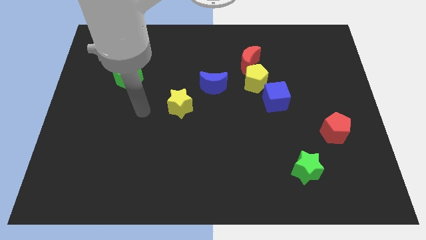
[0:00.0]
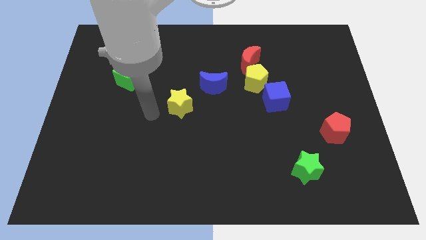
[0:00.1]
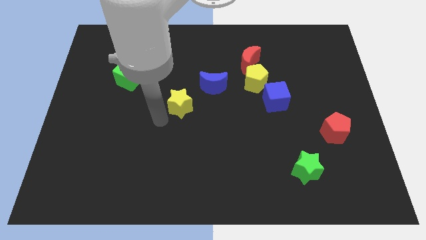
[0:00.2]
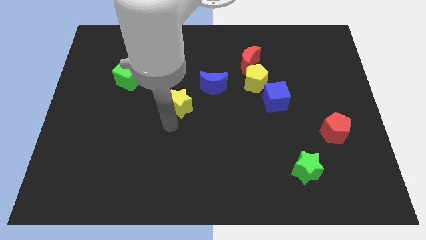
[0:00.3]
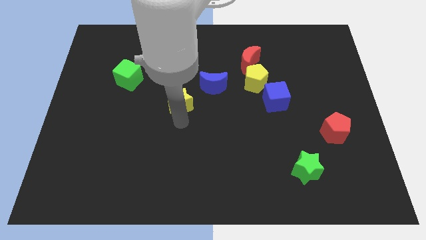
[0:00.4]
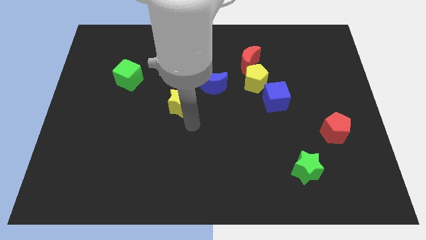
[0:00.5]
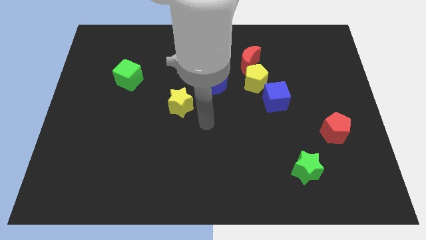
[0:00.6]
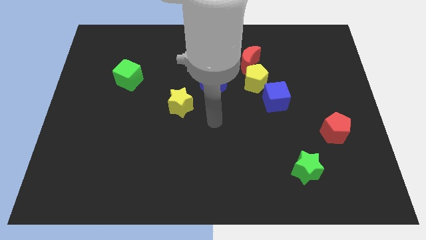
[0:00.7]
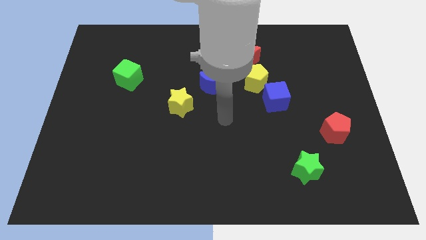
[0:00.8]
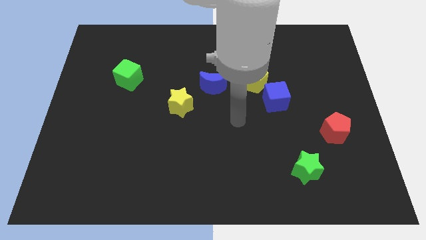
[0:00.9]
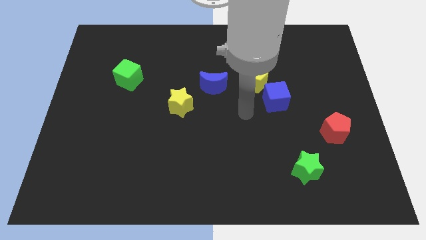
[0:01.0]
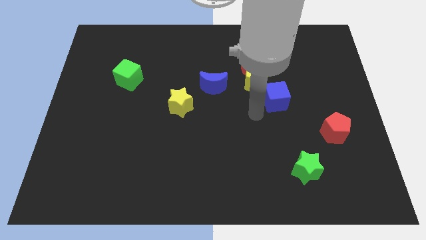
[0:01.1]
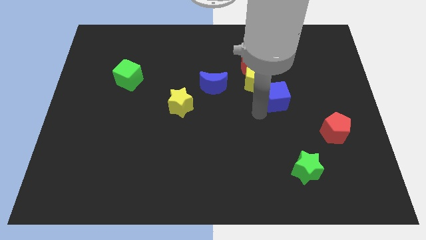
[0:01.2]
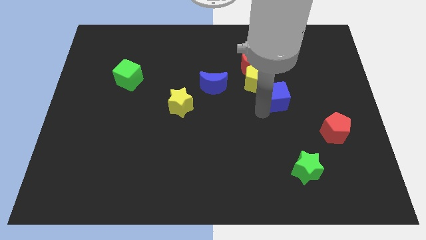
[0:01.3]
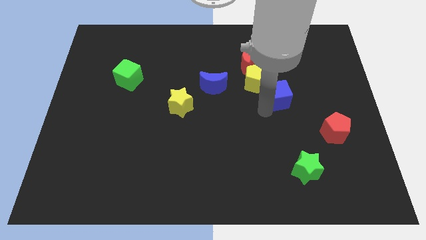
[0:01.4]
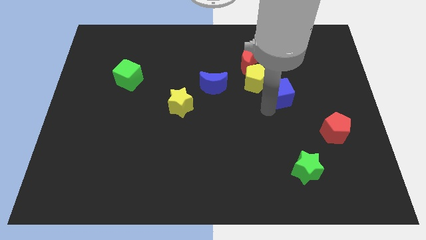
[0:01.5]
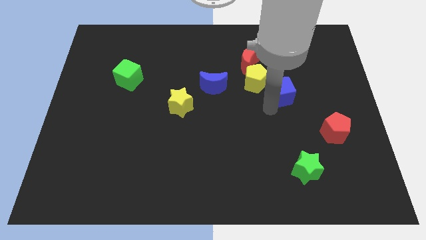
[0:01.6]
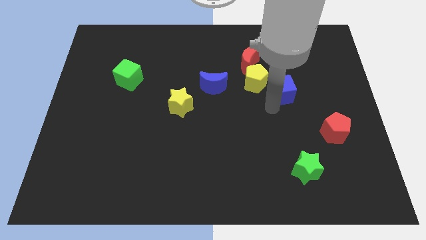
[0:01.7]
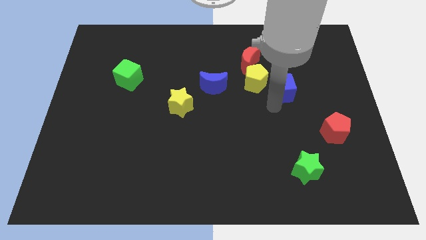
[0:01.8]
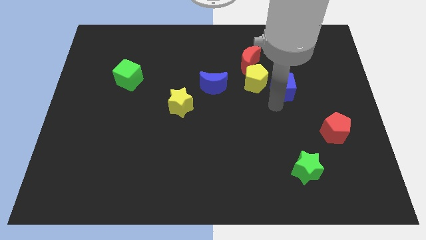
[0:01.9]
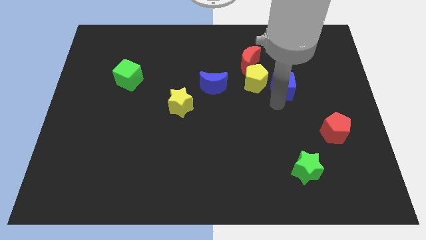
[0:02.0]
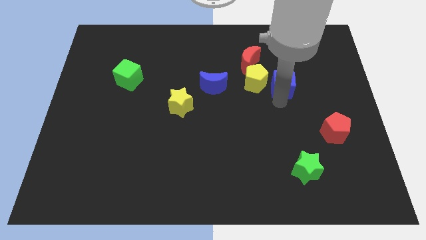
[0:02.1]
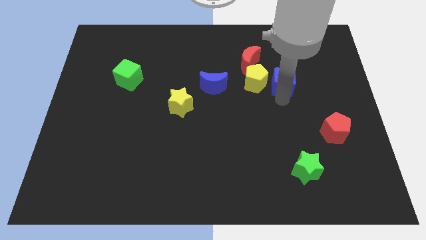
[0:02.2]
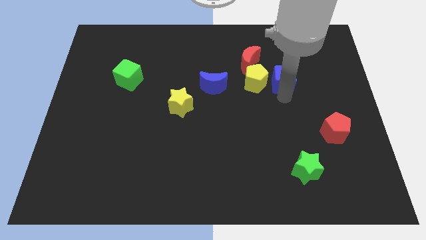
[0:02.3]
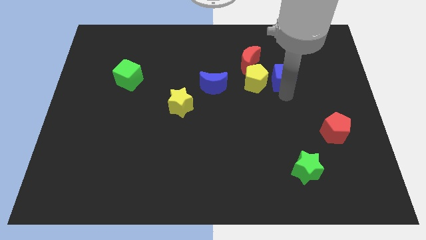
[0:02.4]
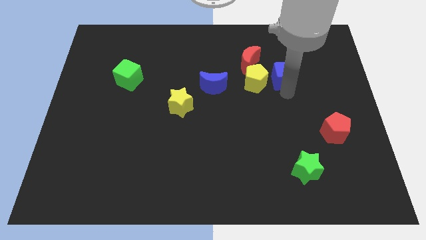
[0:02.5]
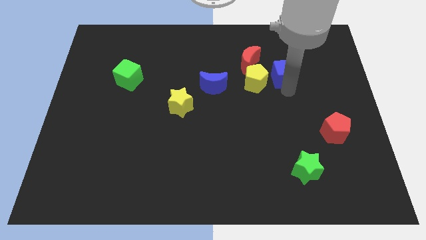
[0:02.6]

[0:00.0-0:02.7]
move the blue cube a little up and to the right

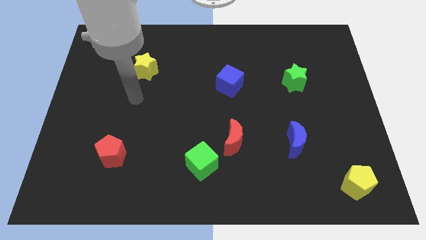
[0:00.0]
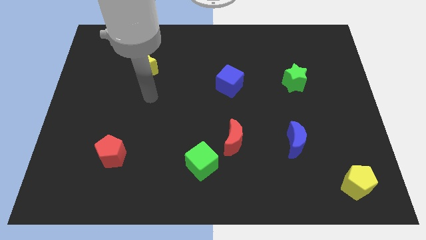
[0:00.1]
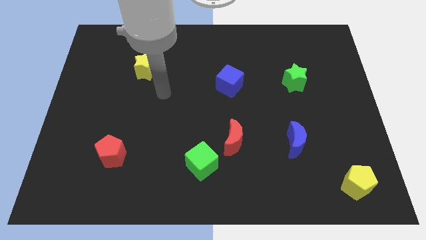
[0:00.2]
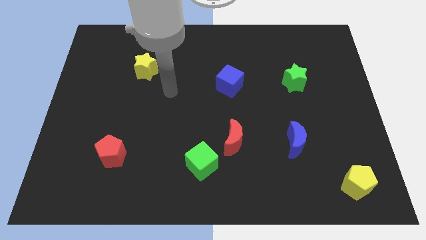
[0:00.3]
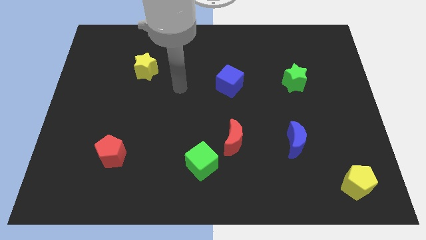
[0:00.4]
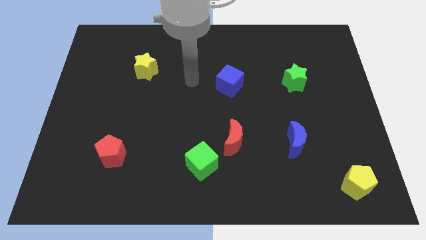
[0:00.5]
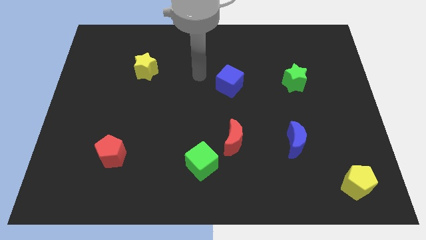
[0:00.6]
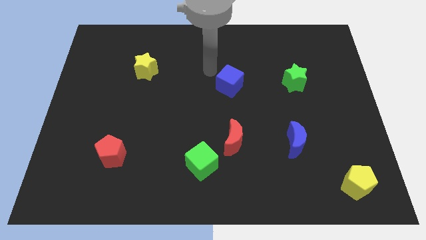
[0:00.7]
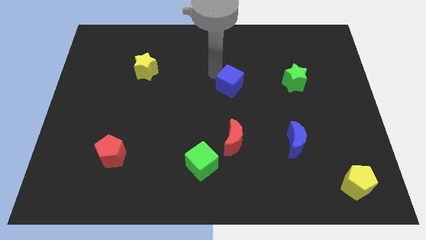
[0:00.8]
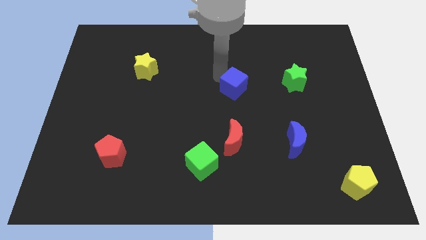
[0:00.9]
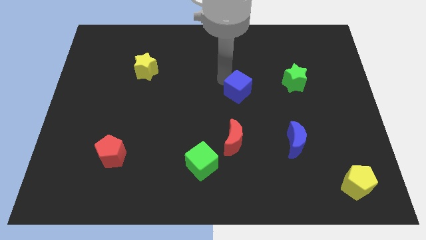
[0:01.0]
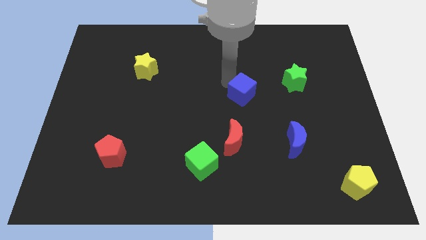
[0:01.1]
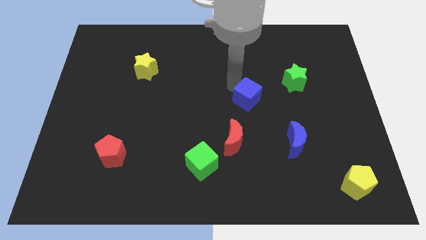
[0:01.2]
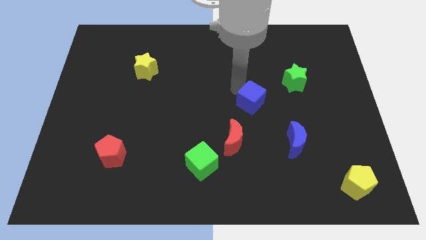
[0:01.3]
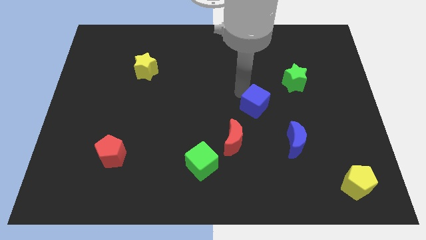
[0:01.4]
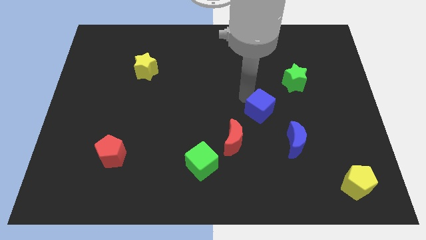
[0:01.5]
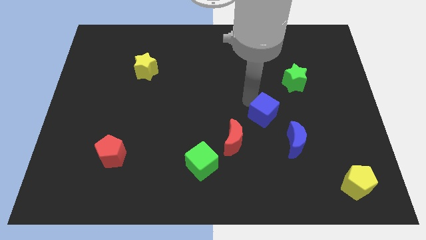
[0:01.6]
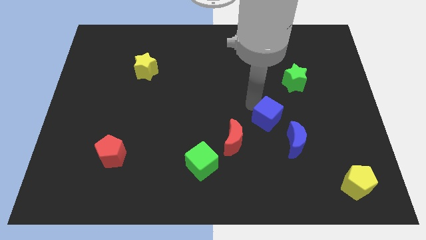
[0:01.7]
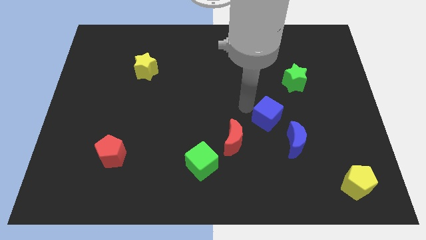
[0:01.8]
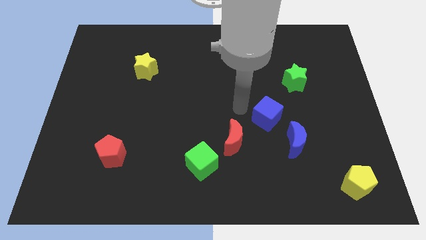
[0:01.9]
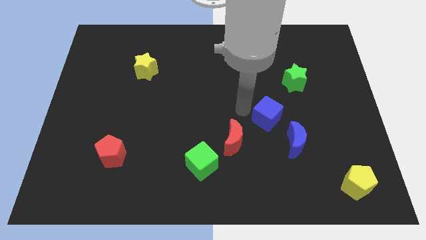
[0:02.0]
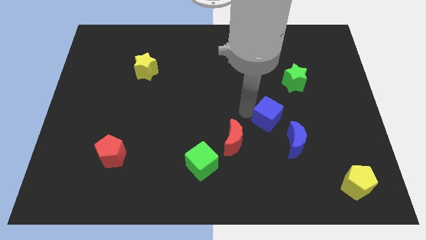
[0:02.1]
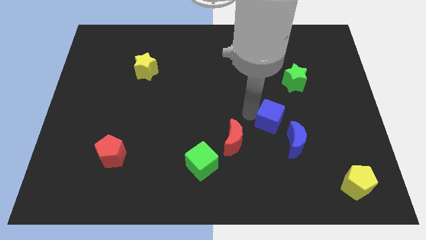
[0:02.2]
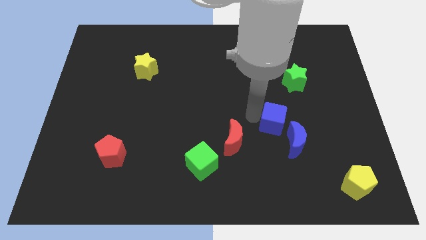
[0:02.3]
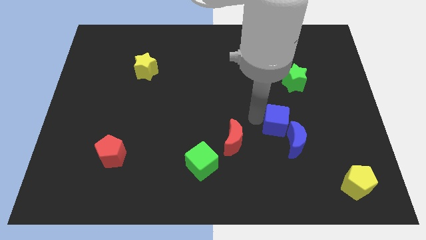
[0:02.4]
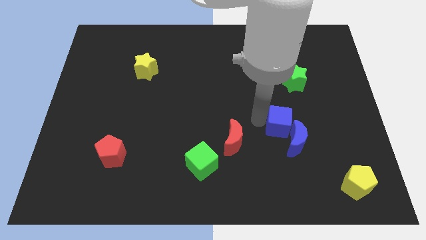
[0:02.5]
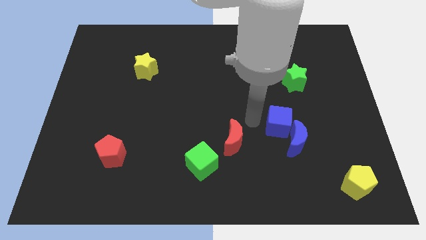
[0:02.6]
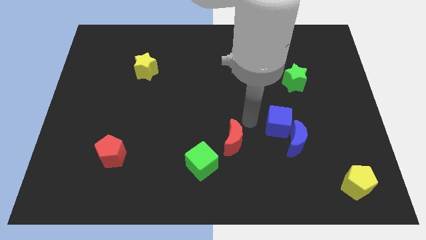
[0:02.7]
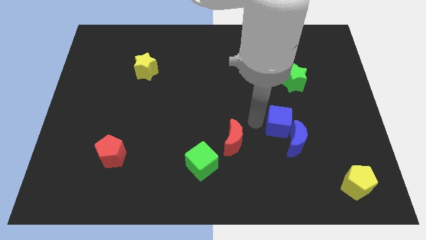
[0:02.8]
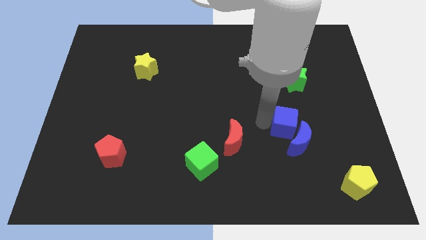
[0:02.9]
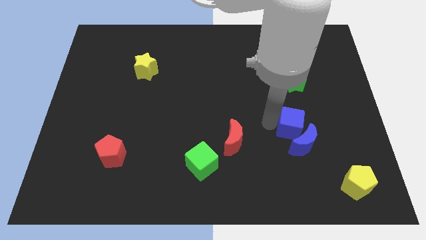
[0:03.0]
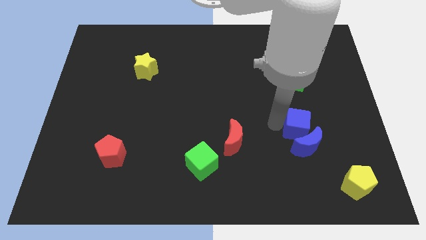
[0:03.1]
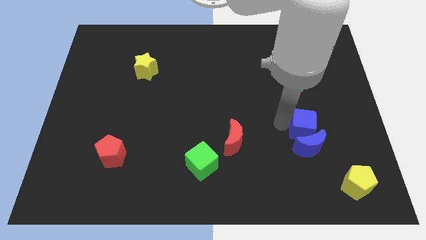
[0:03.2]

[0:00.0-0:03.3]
move the blue cube down and to the right

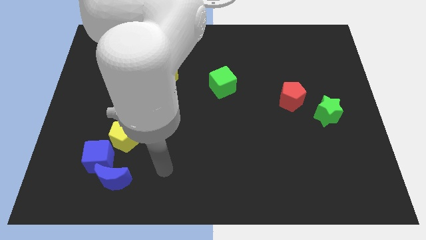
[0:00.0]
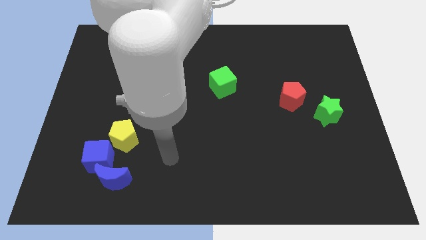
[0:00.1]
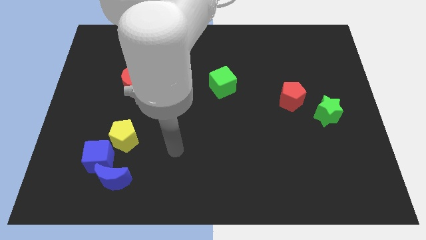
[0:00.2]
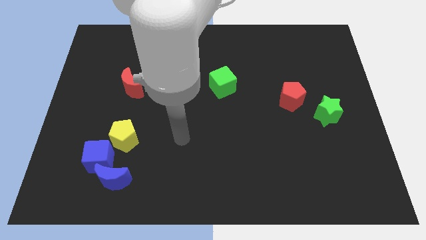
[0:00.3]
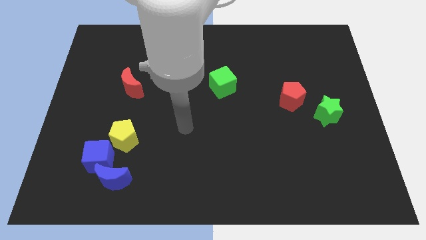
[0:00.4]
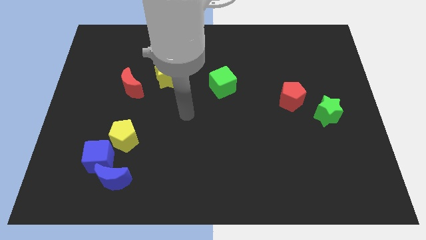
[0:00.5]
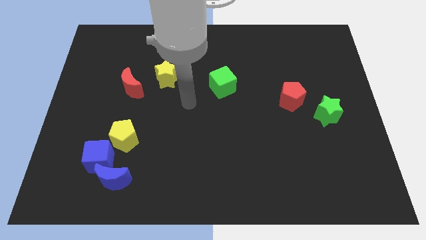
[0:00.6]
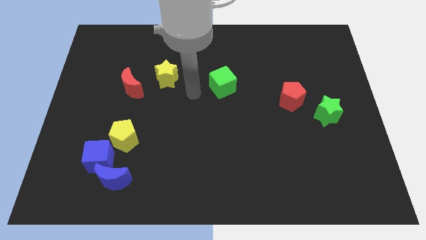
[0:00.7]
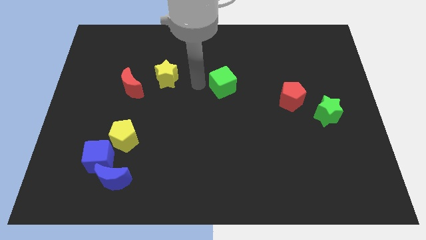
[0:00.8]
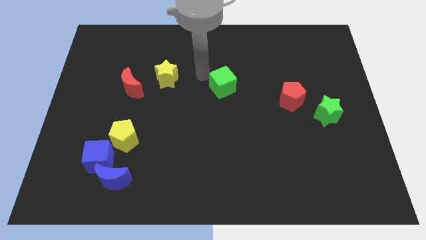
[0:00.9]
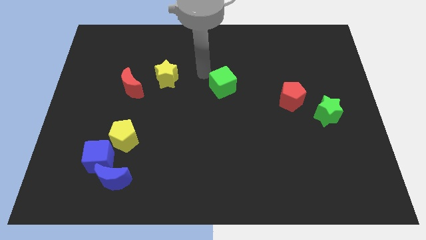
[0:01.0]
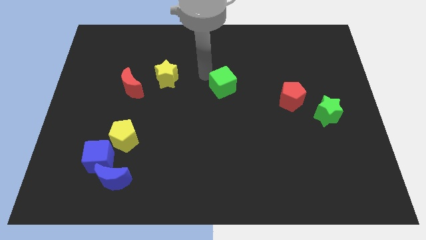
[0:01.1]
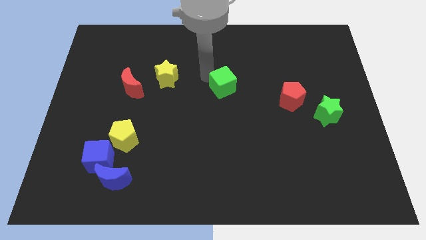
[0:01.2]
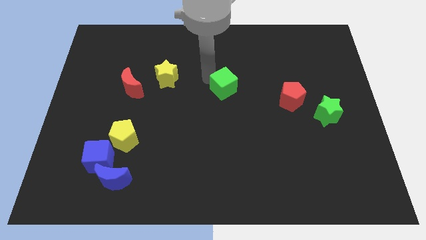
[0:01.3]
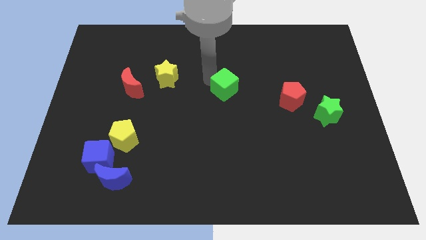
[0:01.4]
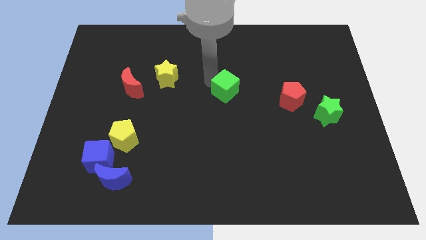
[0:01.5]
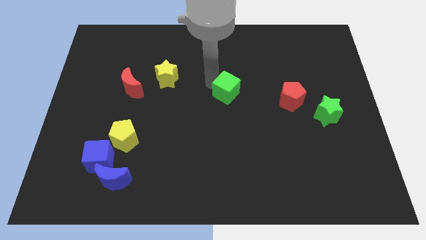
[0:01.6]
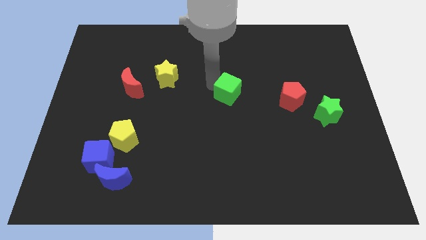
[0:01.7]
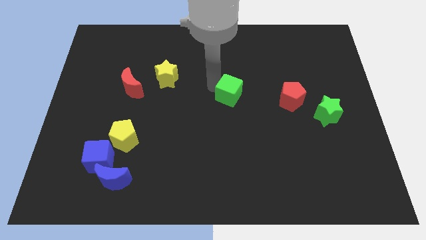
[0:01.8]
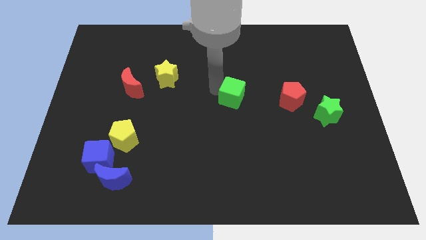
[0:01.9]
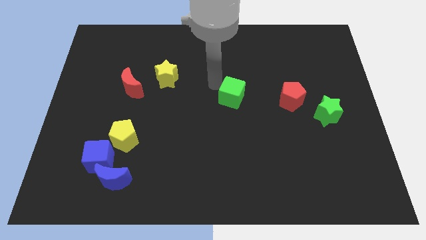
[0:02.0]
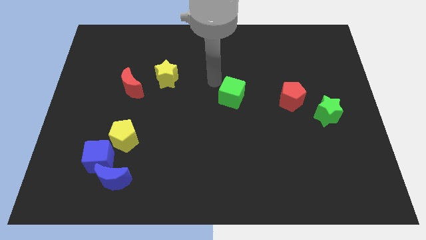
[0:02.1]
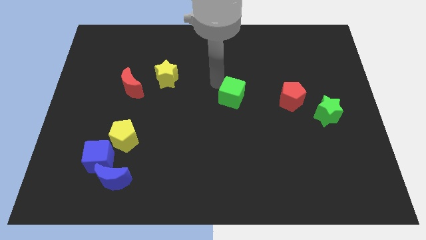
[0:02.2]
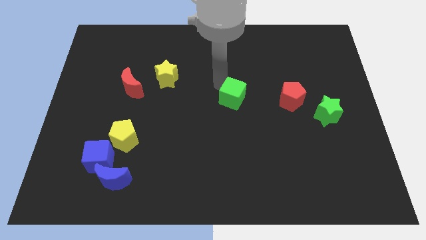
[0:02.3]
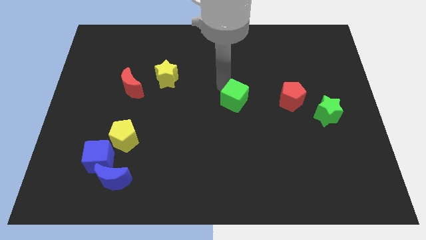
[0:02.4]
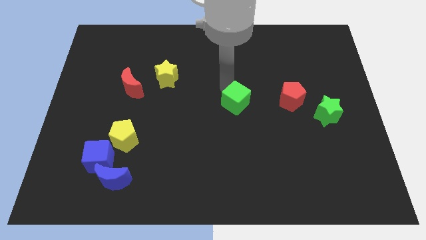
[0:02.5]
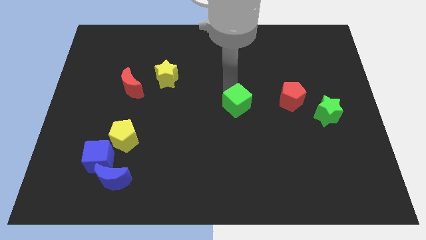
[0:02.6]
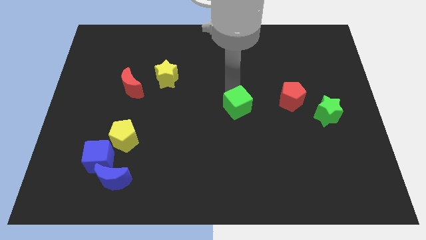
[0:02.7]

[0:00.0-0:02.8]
slightly move the green cube downwards and right
